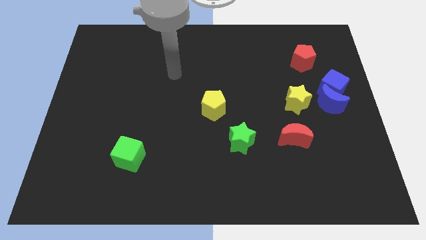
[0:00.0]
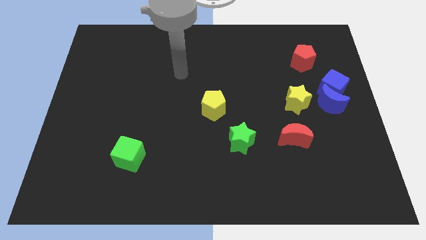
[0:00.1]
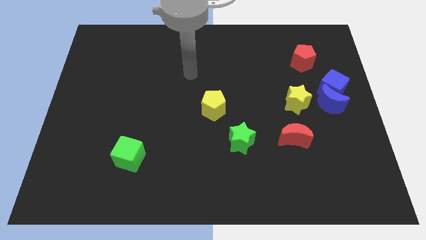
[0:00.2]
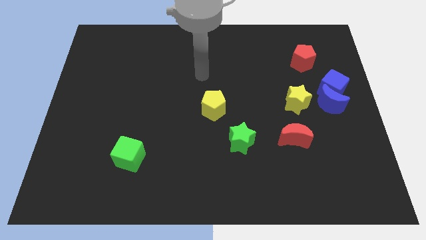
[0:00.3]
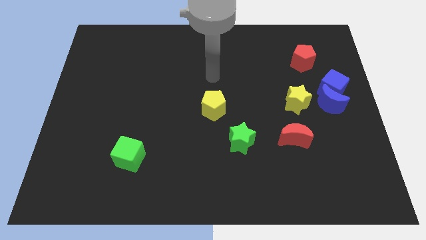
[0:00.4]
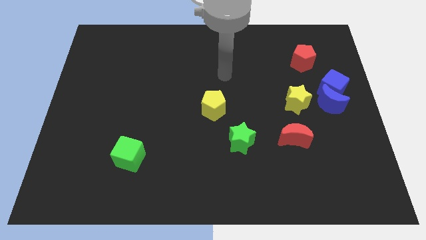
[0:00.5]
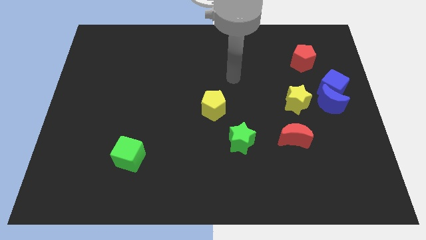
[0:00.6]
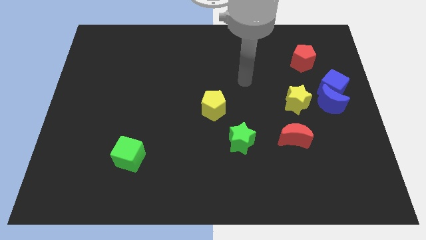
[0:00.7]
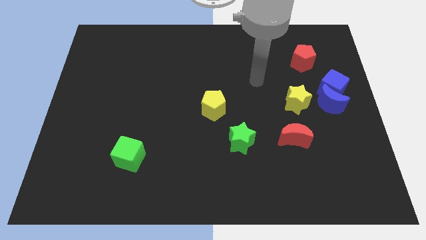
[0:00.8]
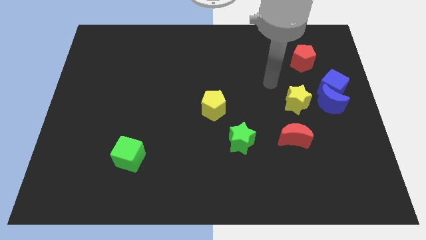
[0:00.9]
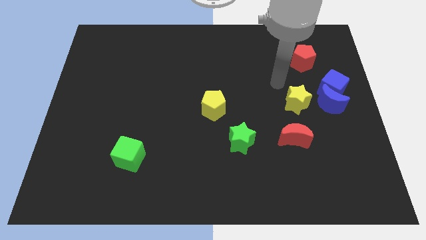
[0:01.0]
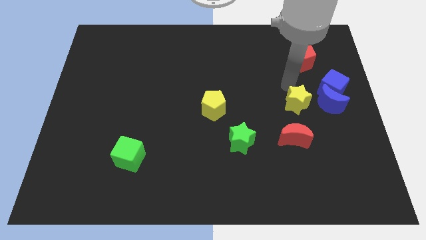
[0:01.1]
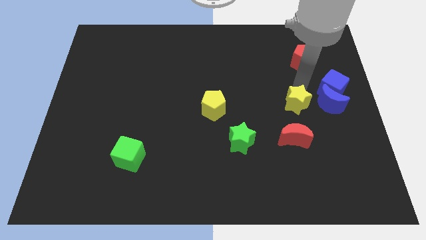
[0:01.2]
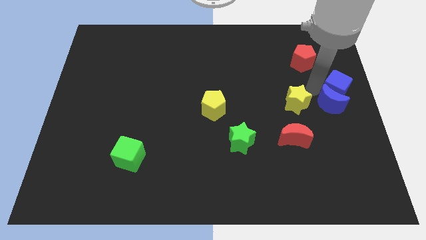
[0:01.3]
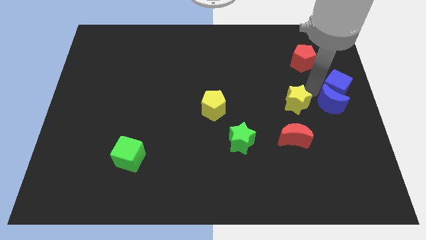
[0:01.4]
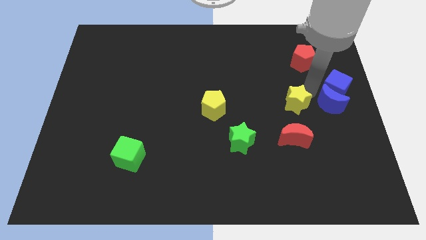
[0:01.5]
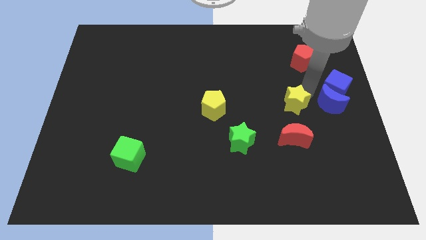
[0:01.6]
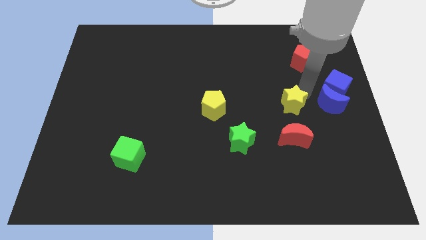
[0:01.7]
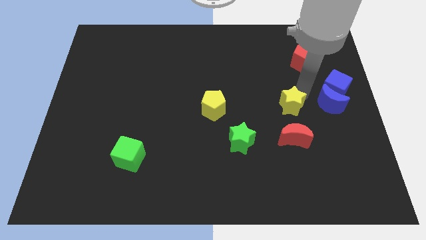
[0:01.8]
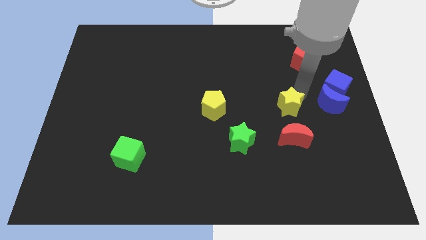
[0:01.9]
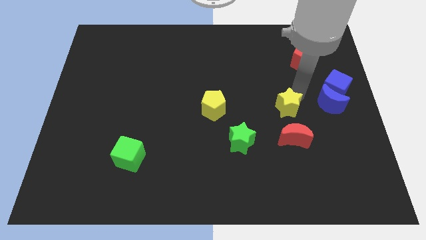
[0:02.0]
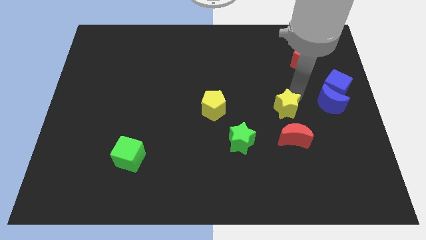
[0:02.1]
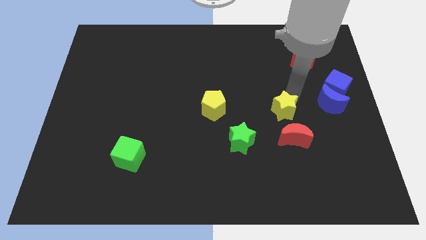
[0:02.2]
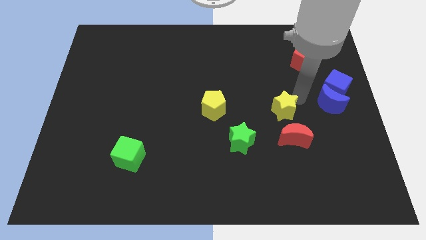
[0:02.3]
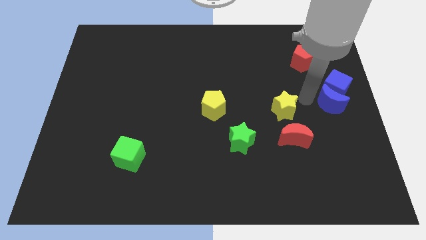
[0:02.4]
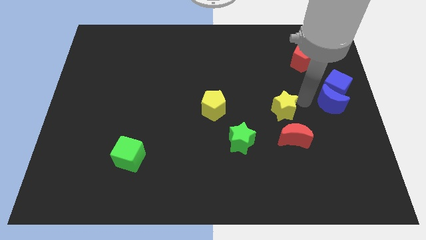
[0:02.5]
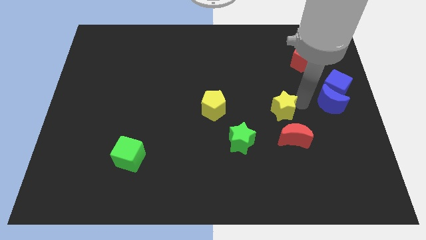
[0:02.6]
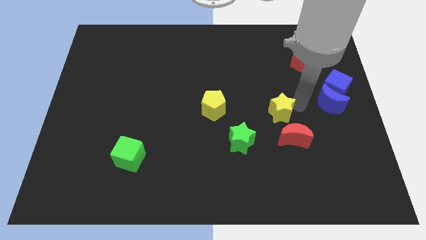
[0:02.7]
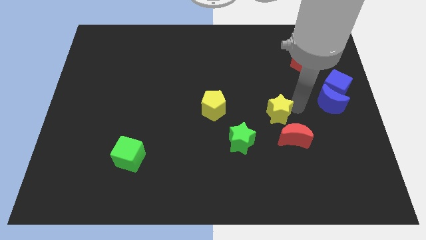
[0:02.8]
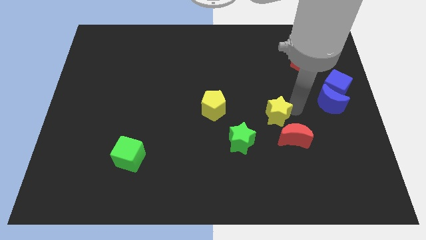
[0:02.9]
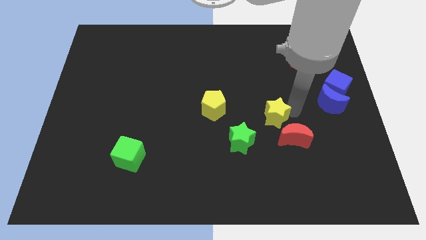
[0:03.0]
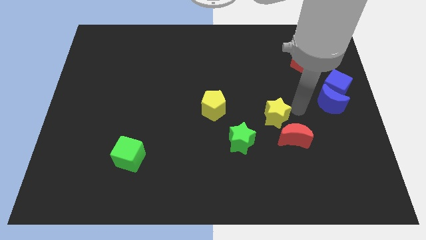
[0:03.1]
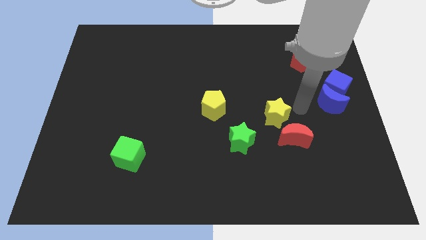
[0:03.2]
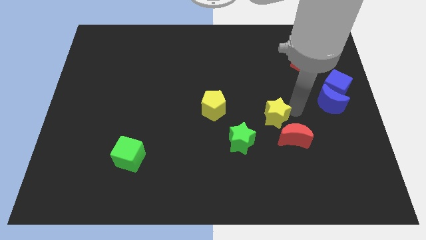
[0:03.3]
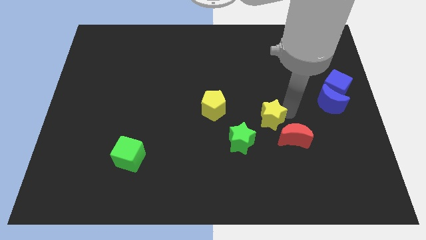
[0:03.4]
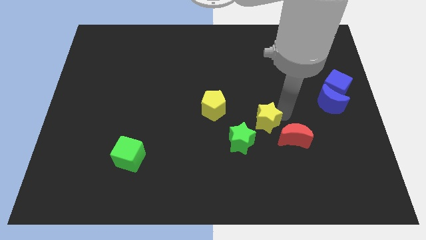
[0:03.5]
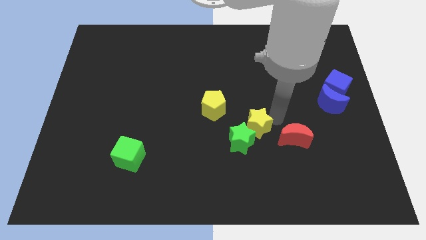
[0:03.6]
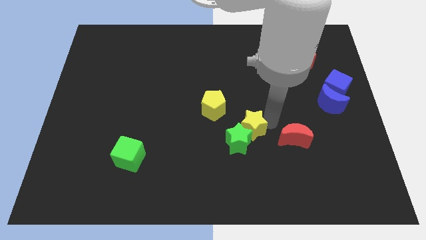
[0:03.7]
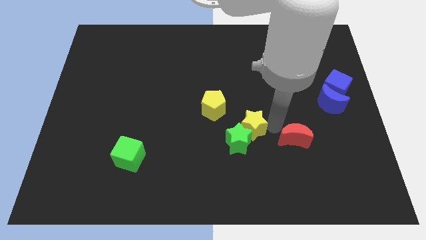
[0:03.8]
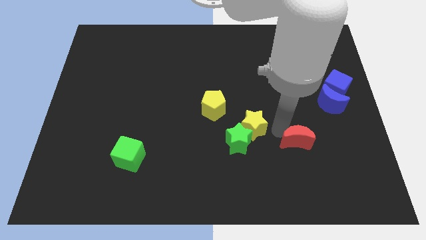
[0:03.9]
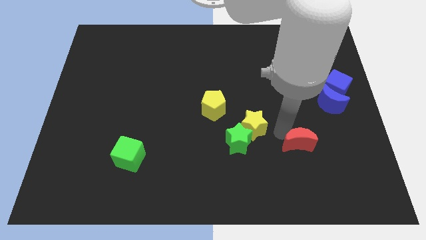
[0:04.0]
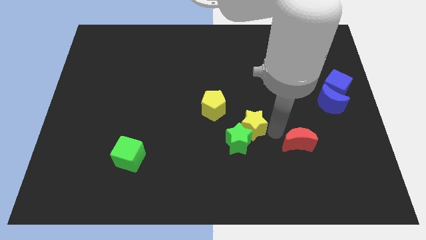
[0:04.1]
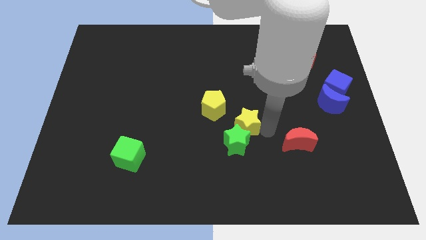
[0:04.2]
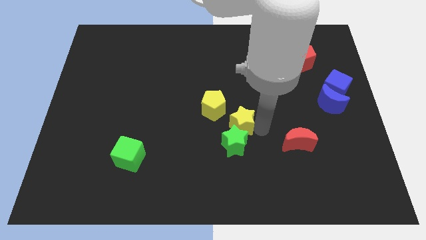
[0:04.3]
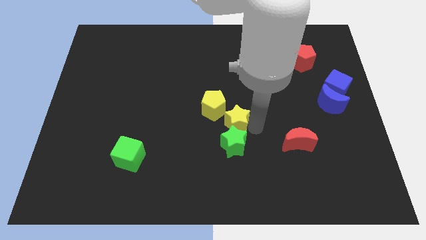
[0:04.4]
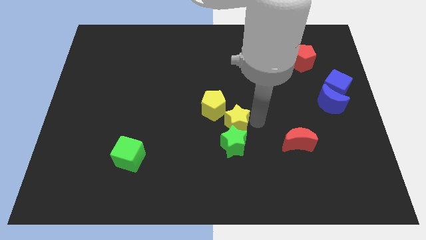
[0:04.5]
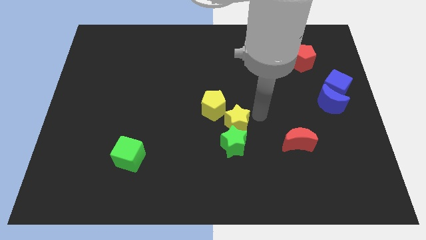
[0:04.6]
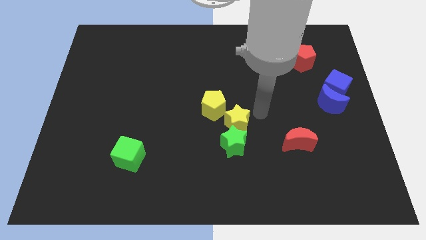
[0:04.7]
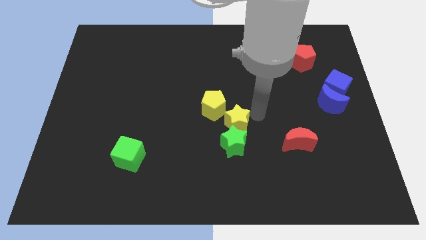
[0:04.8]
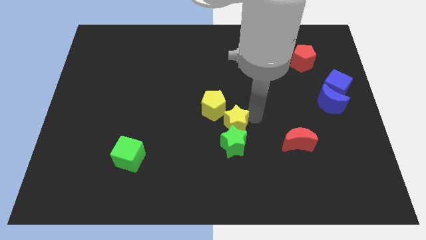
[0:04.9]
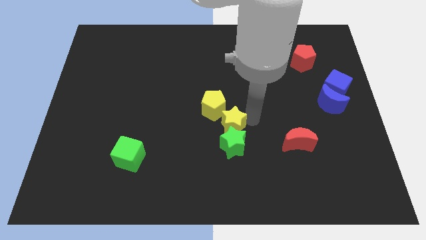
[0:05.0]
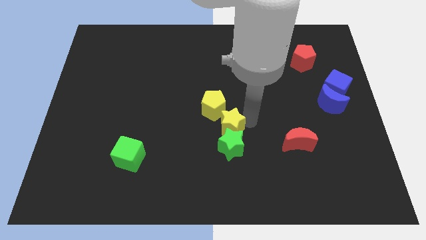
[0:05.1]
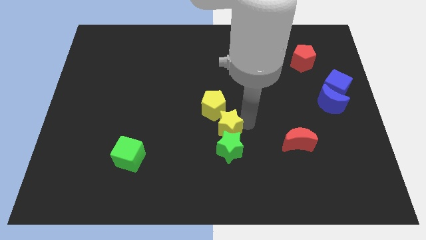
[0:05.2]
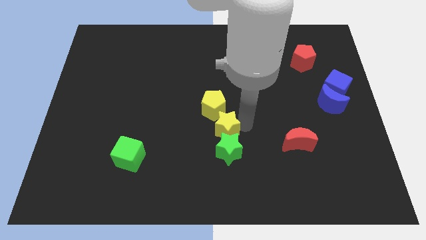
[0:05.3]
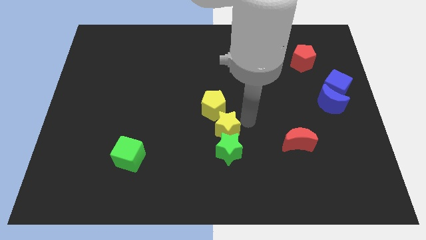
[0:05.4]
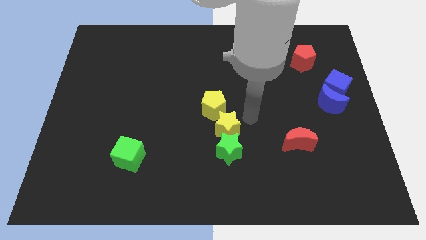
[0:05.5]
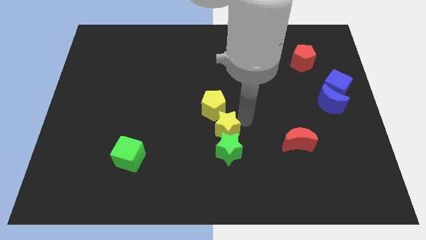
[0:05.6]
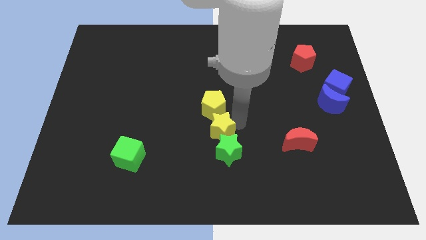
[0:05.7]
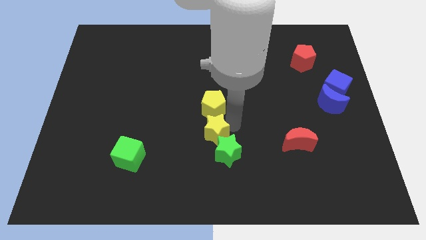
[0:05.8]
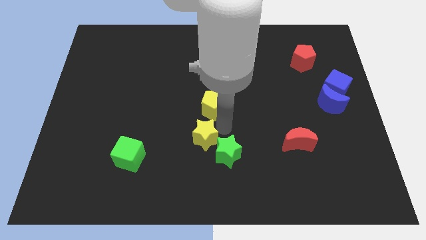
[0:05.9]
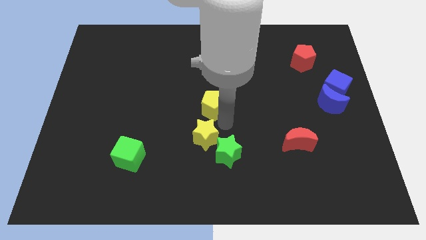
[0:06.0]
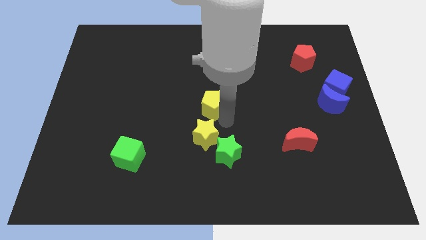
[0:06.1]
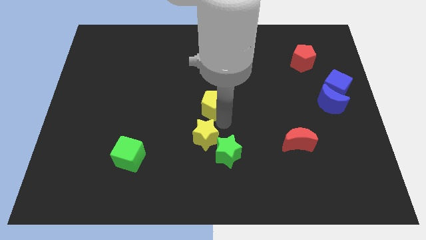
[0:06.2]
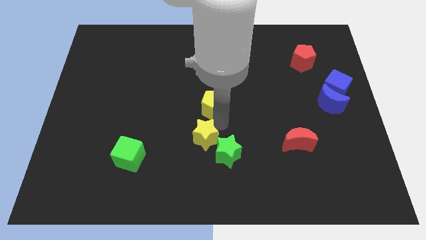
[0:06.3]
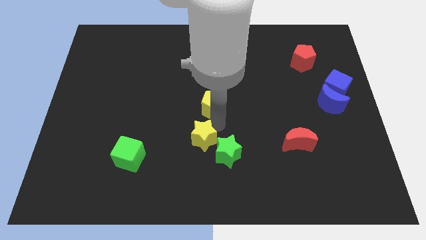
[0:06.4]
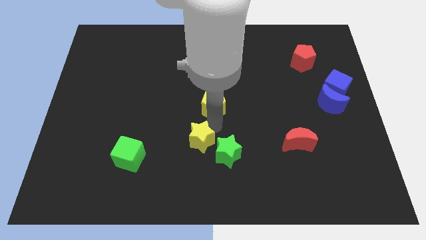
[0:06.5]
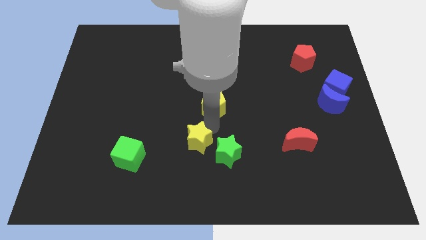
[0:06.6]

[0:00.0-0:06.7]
slide the yellow star right of the green cube

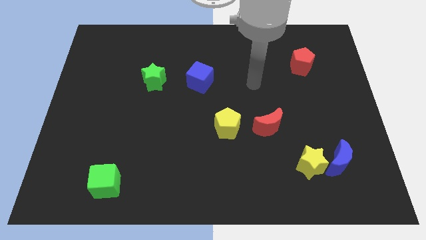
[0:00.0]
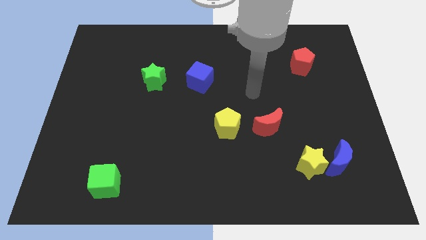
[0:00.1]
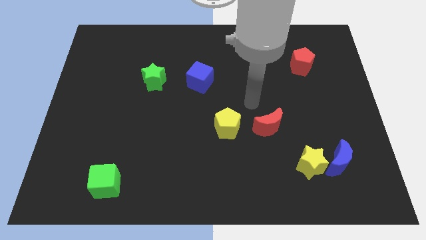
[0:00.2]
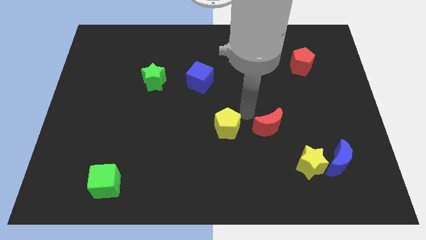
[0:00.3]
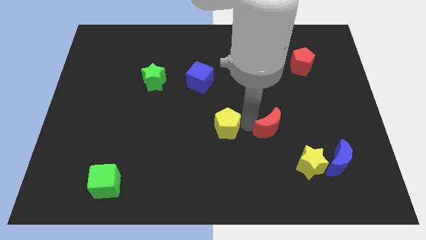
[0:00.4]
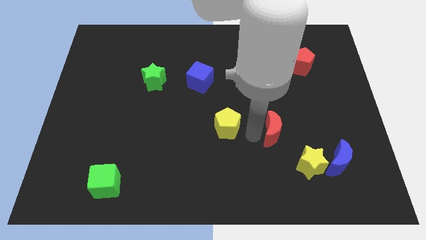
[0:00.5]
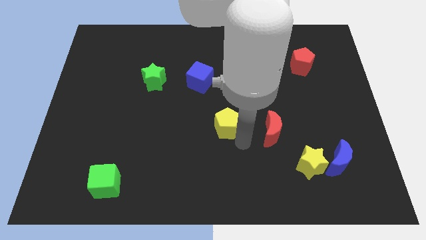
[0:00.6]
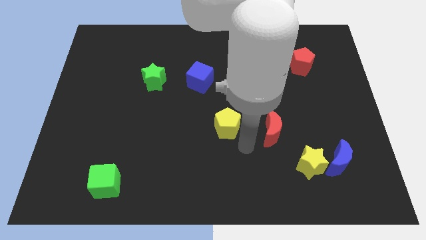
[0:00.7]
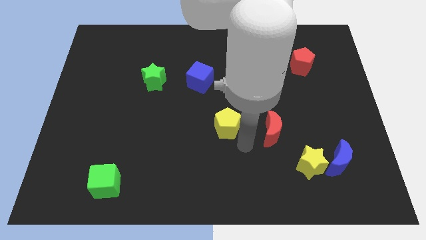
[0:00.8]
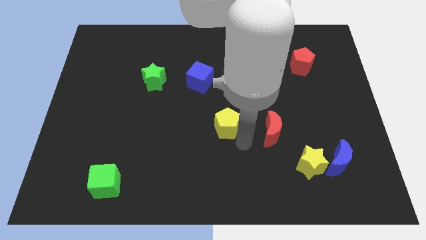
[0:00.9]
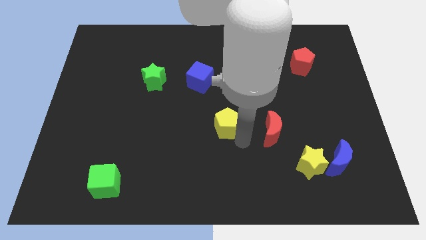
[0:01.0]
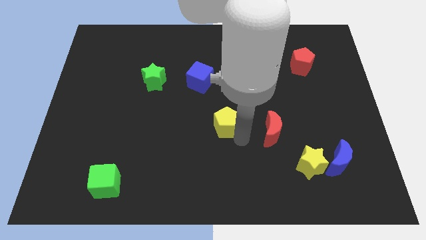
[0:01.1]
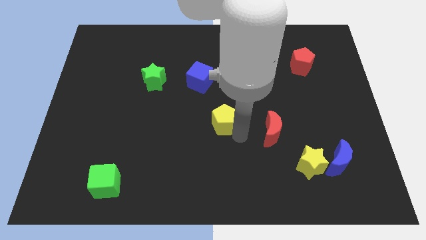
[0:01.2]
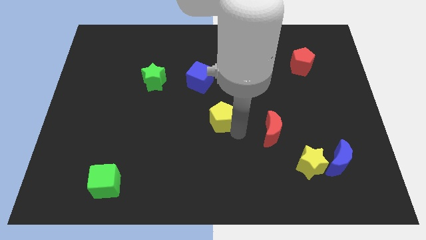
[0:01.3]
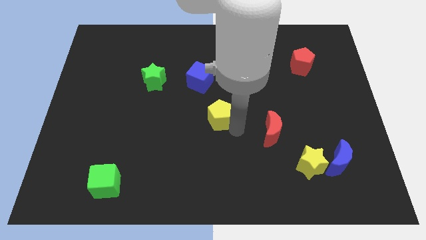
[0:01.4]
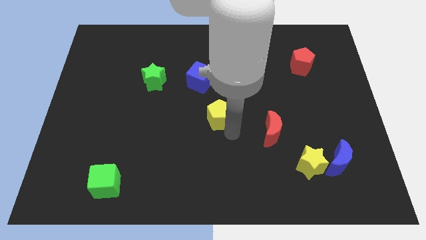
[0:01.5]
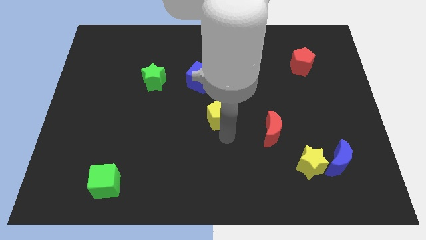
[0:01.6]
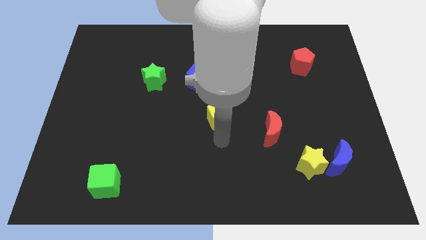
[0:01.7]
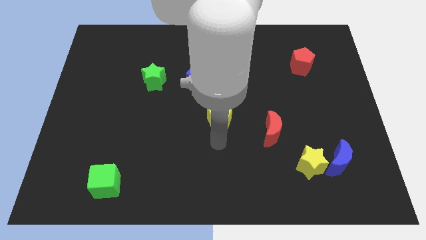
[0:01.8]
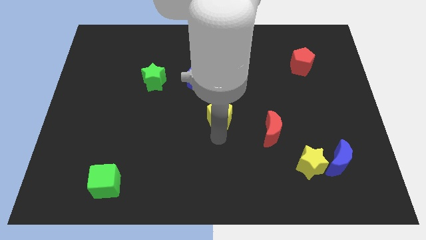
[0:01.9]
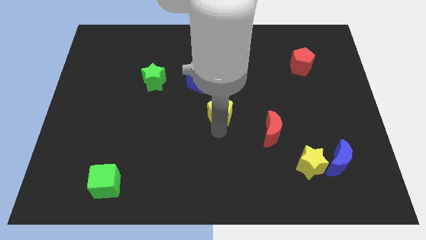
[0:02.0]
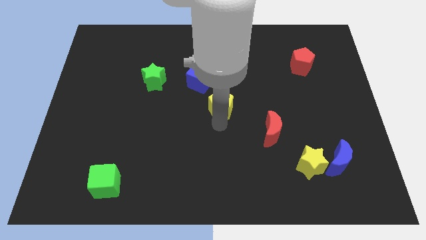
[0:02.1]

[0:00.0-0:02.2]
move the yellow pentagon to the bottom right of the blue cube
